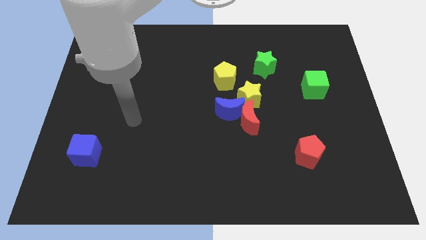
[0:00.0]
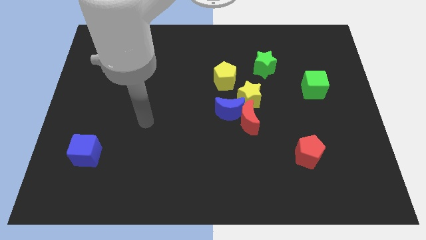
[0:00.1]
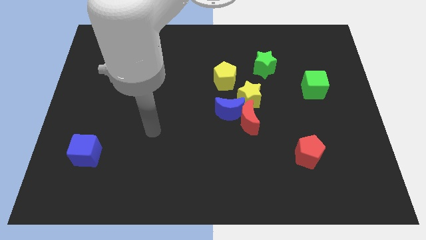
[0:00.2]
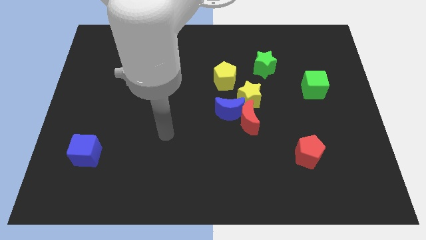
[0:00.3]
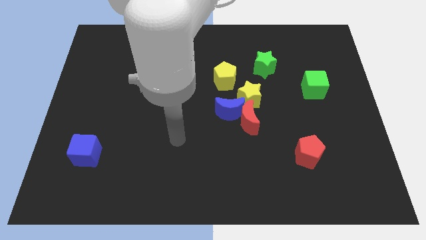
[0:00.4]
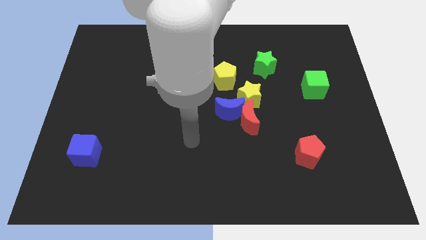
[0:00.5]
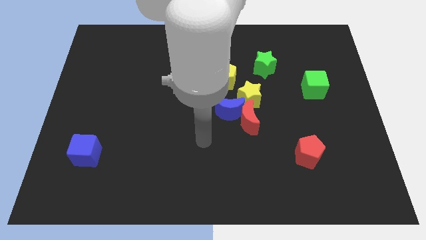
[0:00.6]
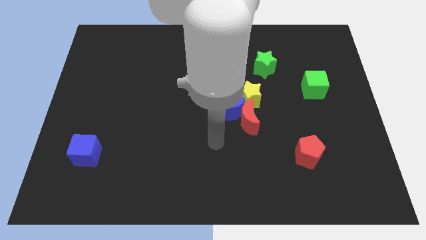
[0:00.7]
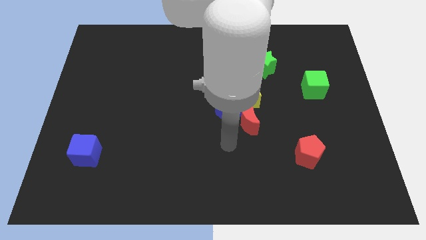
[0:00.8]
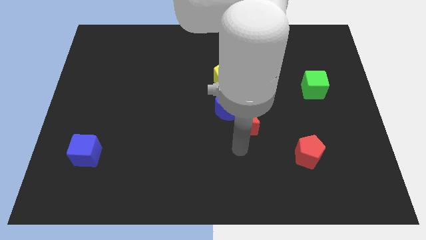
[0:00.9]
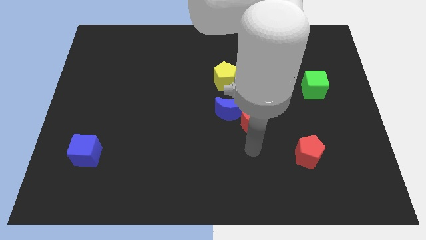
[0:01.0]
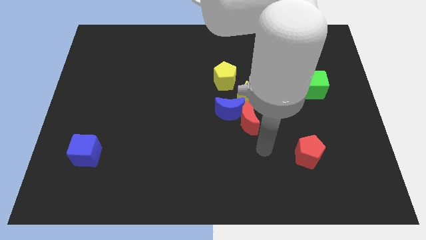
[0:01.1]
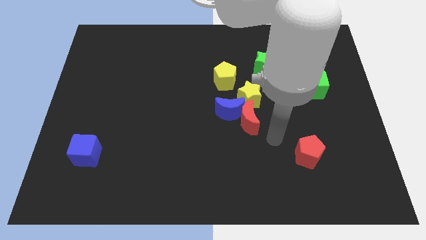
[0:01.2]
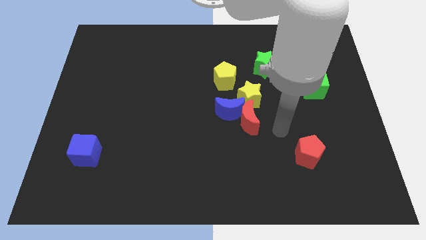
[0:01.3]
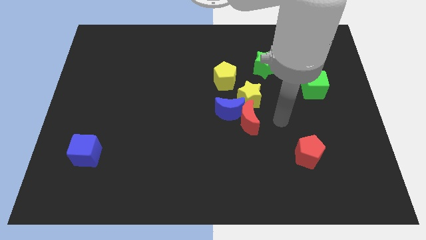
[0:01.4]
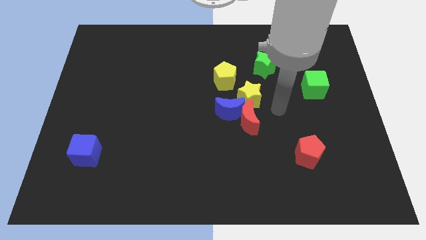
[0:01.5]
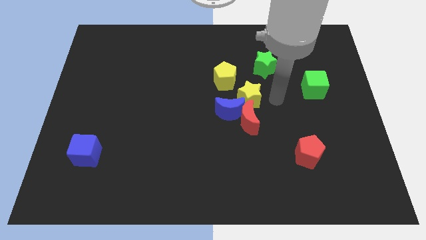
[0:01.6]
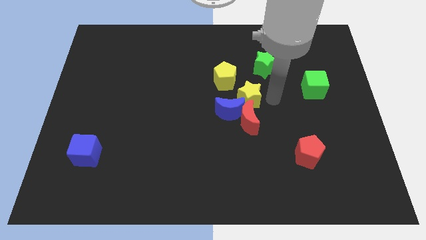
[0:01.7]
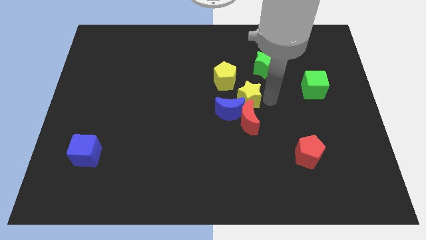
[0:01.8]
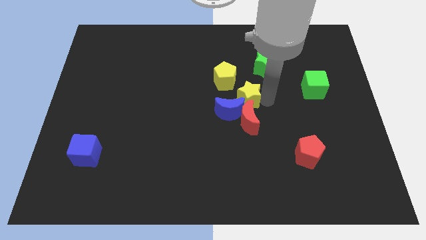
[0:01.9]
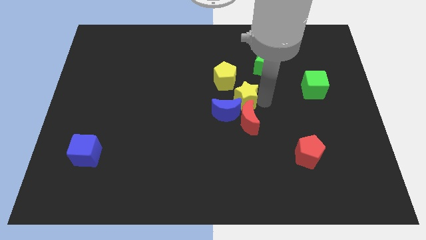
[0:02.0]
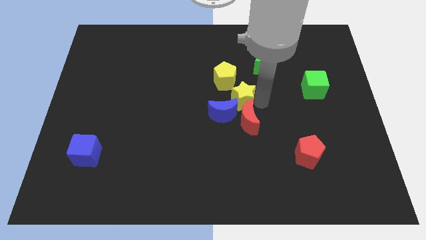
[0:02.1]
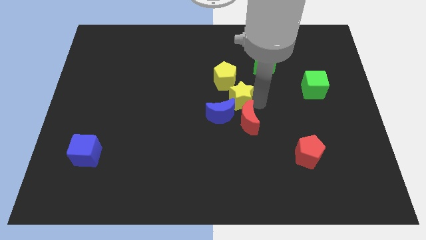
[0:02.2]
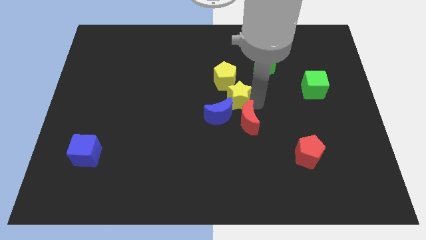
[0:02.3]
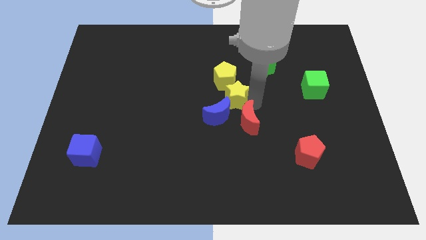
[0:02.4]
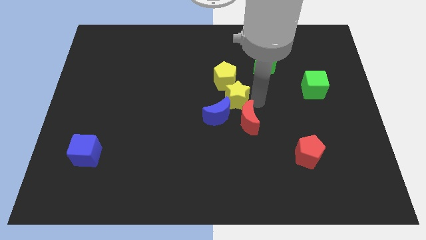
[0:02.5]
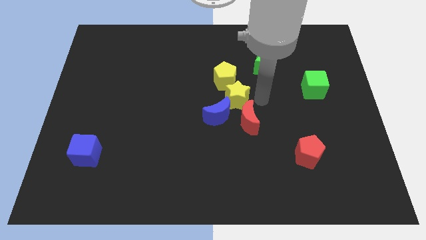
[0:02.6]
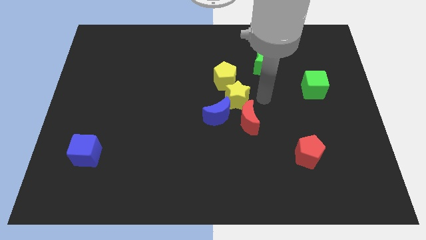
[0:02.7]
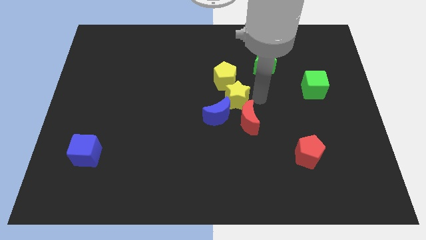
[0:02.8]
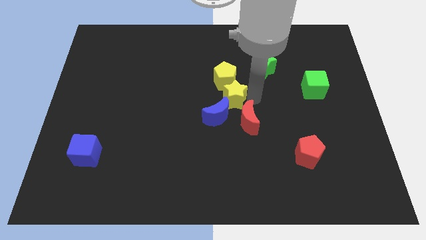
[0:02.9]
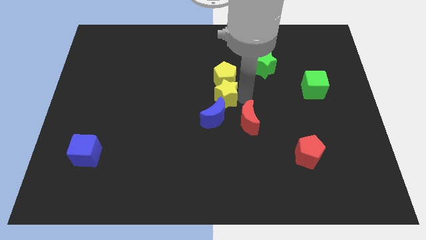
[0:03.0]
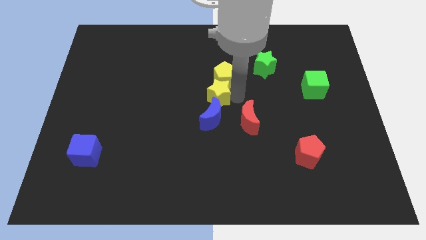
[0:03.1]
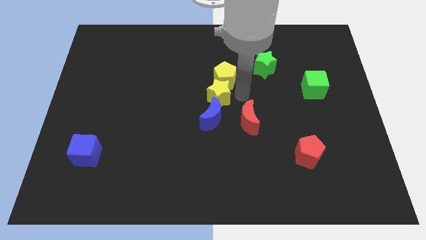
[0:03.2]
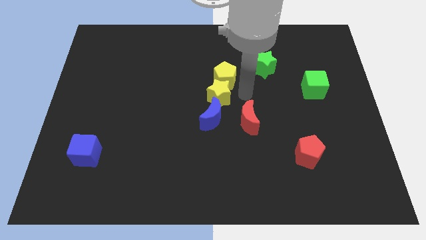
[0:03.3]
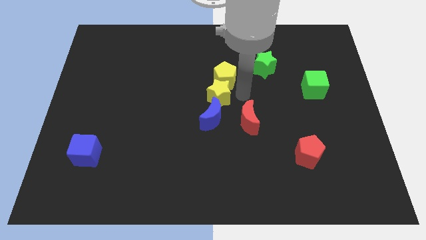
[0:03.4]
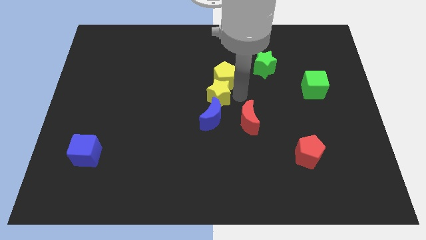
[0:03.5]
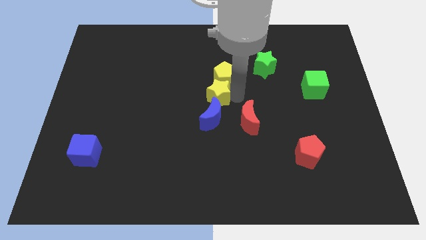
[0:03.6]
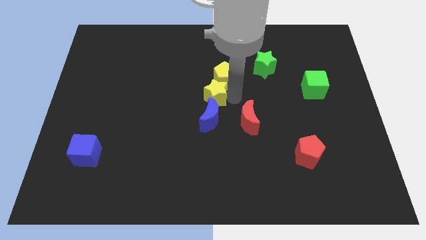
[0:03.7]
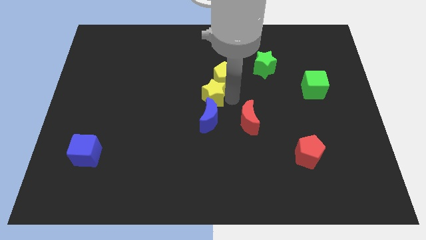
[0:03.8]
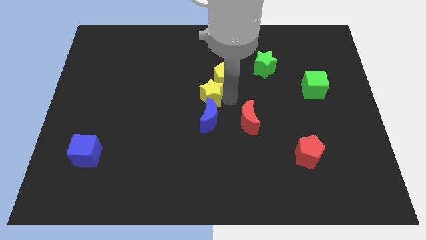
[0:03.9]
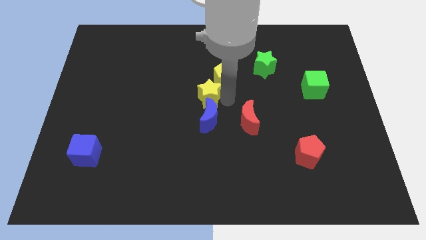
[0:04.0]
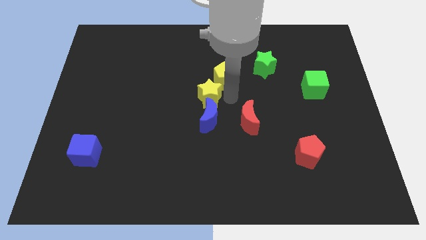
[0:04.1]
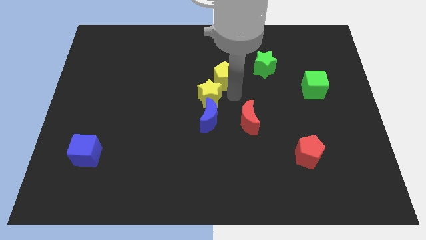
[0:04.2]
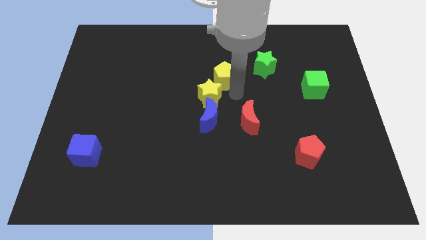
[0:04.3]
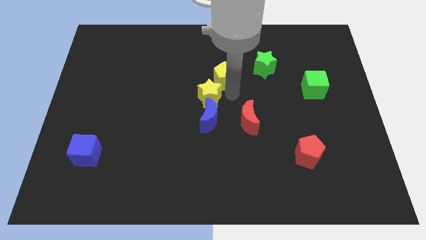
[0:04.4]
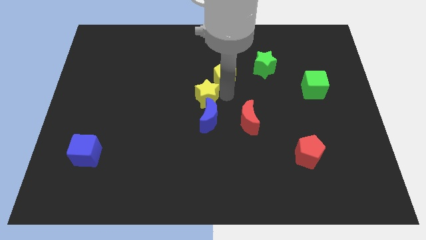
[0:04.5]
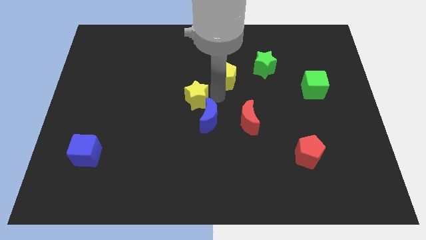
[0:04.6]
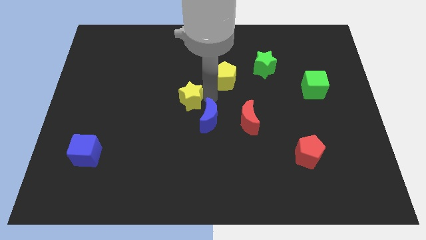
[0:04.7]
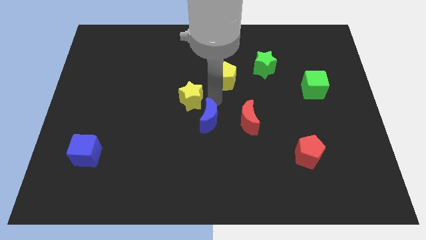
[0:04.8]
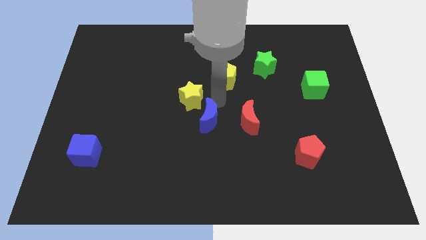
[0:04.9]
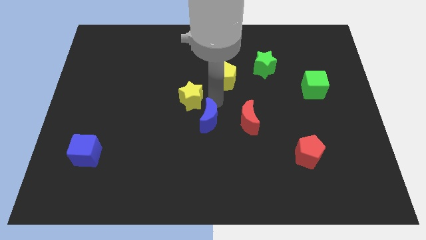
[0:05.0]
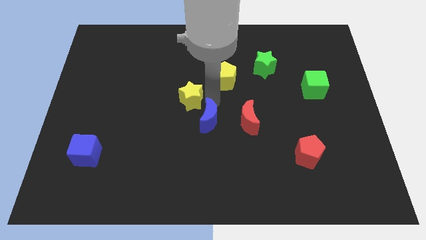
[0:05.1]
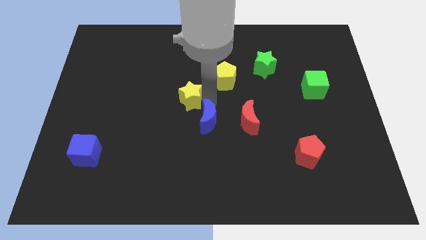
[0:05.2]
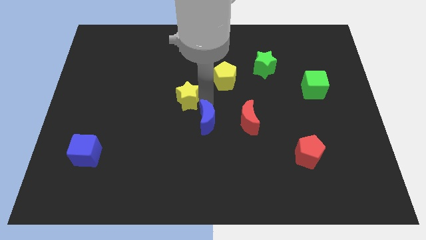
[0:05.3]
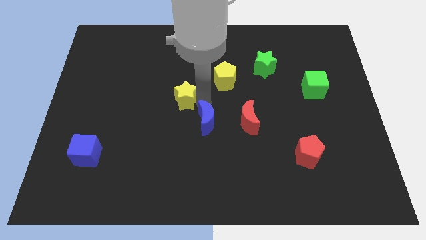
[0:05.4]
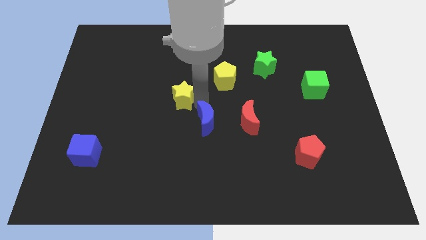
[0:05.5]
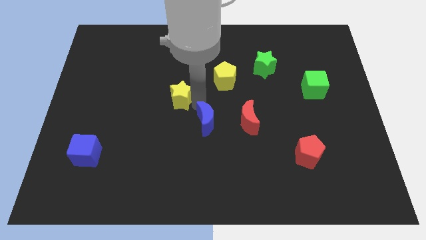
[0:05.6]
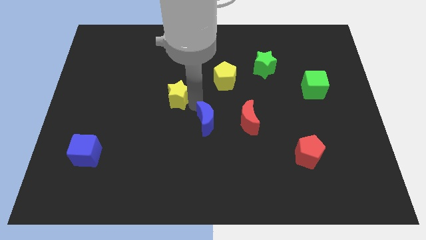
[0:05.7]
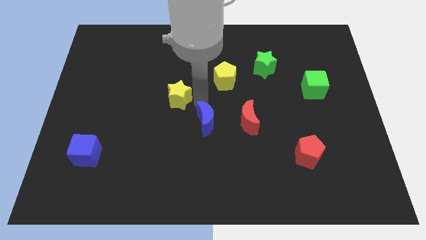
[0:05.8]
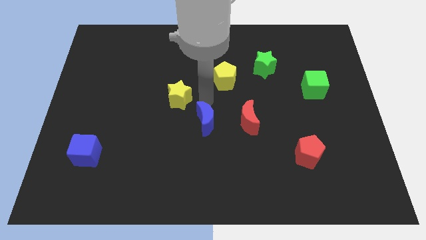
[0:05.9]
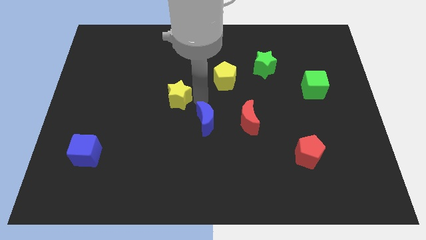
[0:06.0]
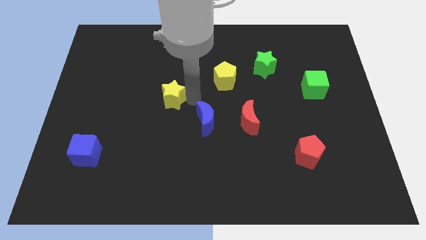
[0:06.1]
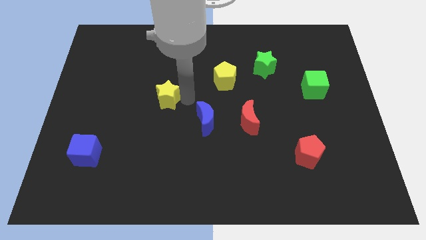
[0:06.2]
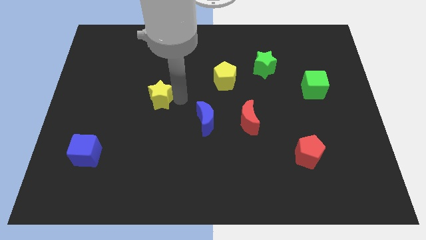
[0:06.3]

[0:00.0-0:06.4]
push the yellow star to the left

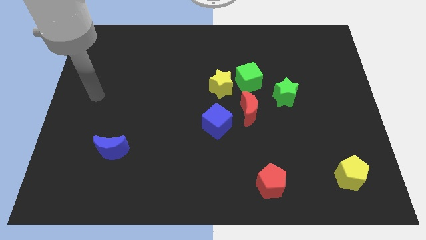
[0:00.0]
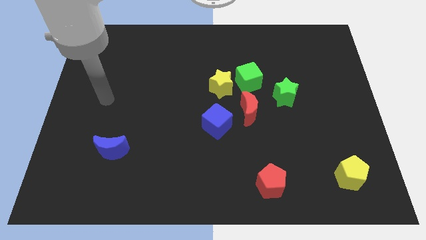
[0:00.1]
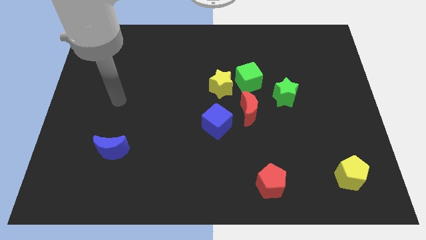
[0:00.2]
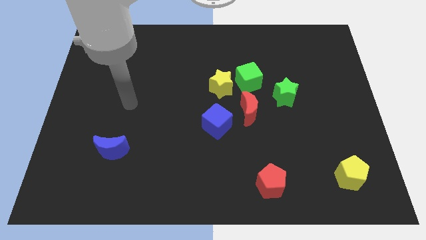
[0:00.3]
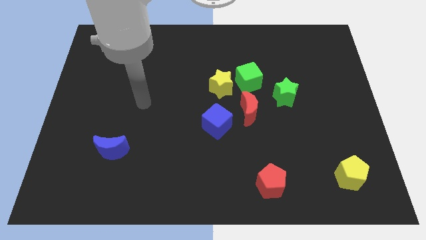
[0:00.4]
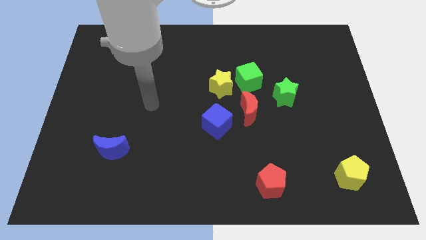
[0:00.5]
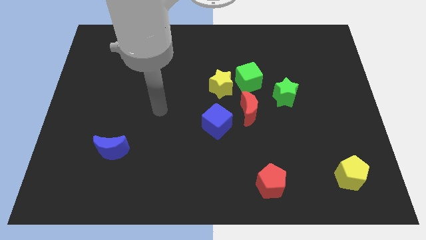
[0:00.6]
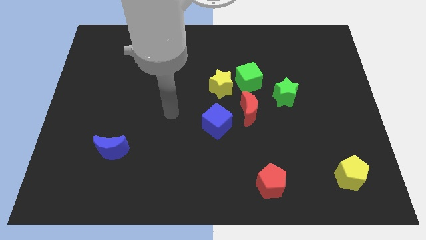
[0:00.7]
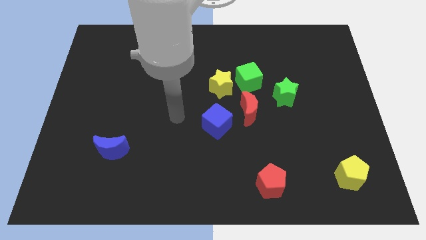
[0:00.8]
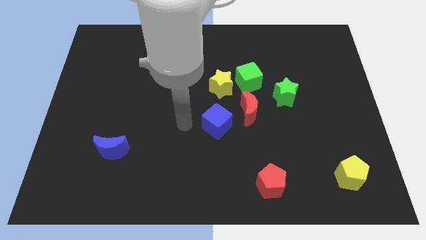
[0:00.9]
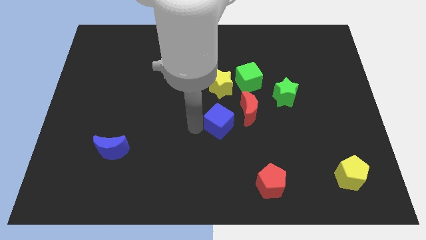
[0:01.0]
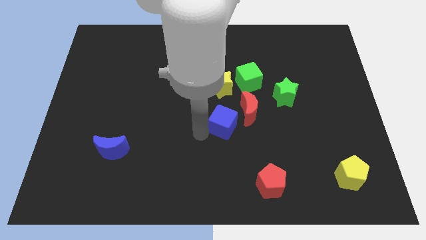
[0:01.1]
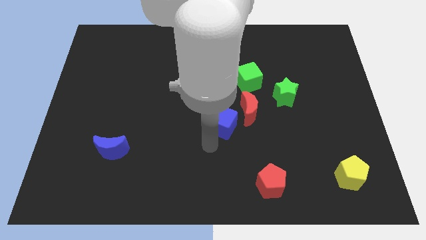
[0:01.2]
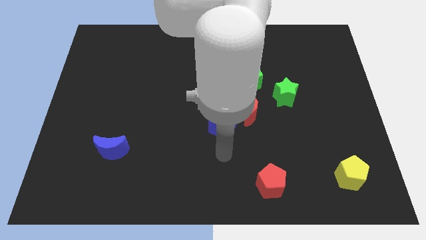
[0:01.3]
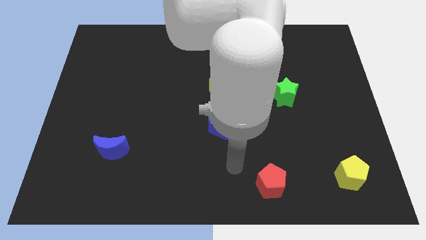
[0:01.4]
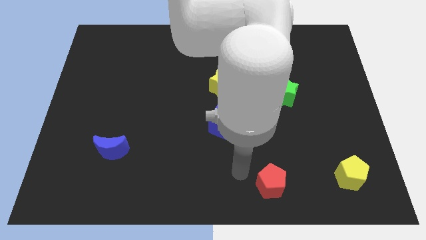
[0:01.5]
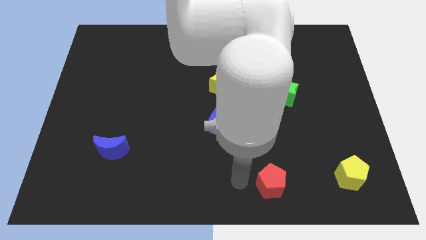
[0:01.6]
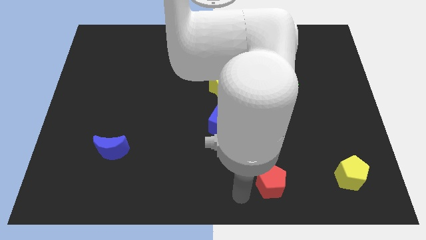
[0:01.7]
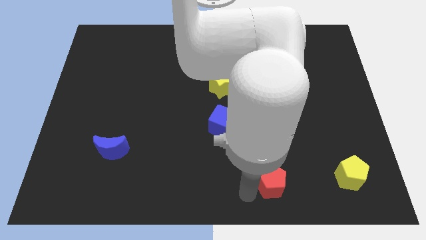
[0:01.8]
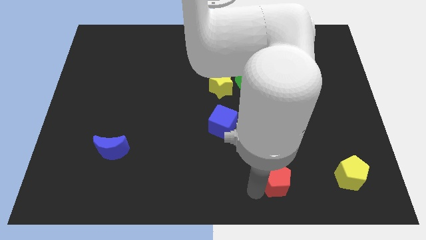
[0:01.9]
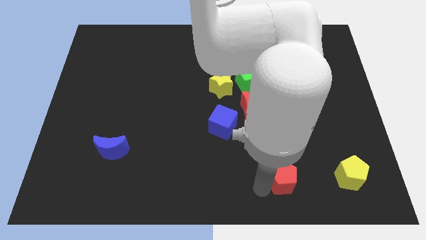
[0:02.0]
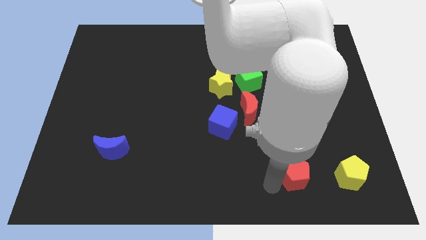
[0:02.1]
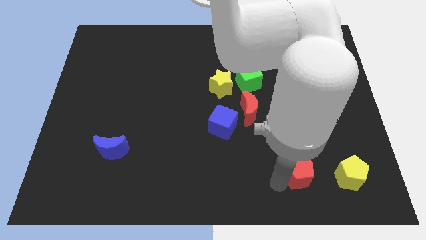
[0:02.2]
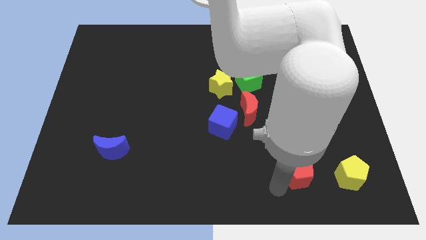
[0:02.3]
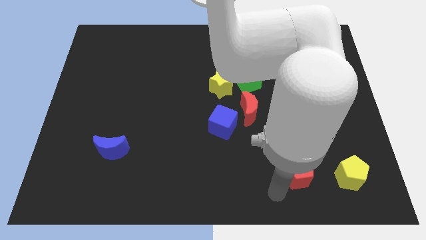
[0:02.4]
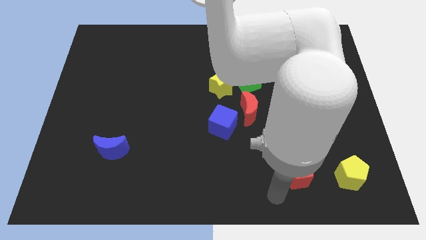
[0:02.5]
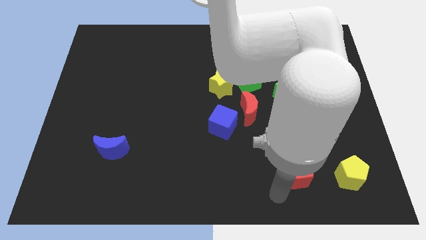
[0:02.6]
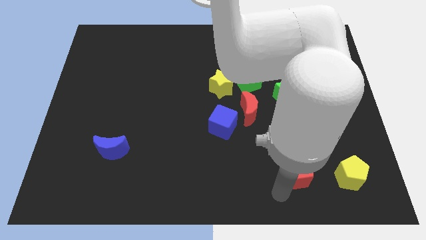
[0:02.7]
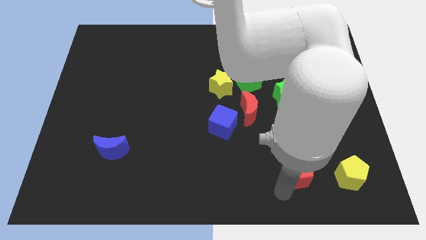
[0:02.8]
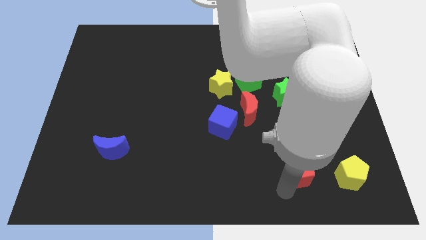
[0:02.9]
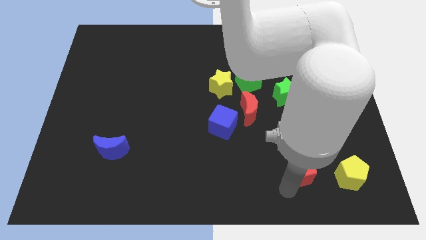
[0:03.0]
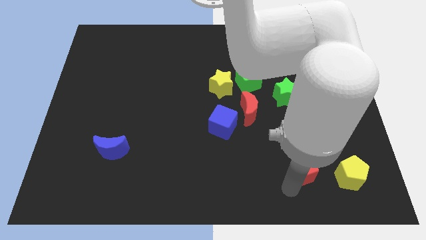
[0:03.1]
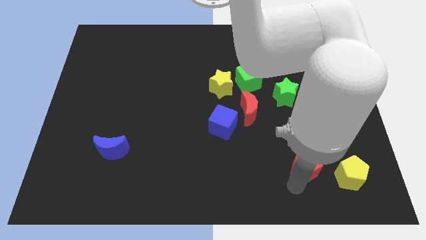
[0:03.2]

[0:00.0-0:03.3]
slightly move the red pentagon diagonally upwards and right
